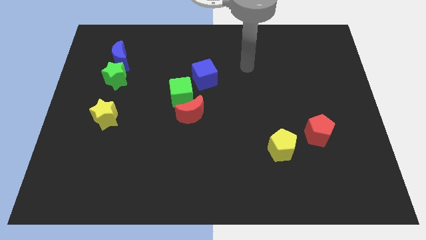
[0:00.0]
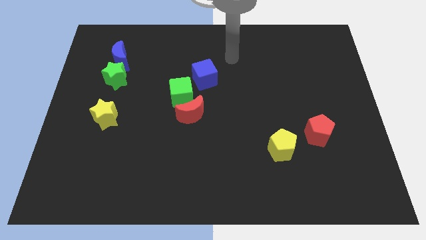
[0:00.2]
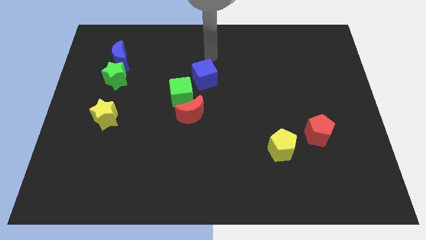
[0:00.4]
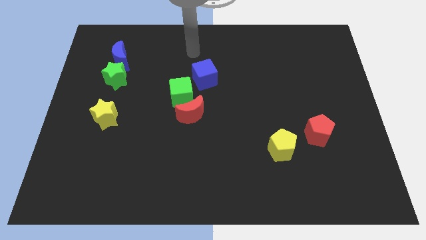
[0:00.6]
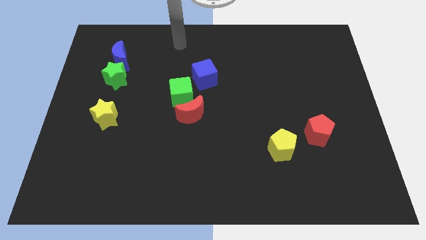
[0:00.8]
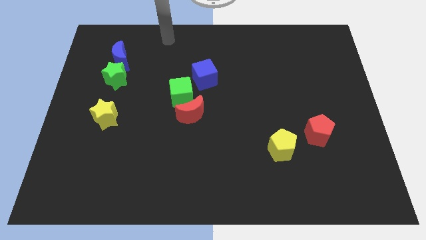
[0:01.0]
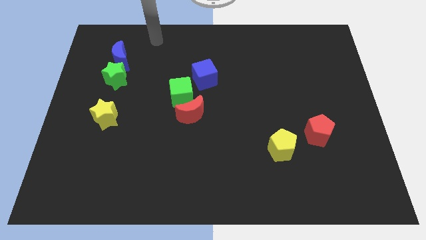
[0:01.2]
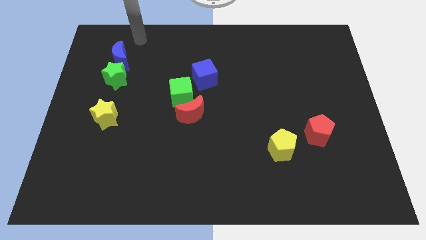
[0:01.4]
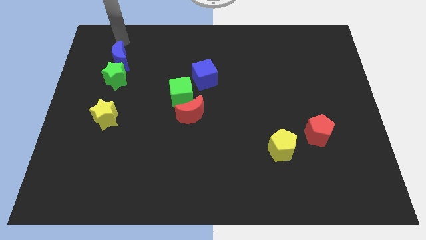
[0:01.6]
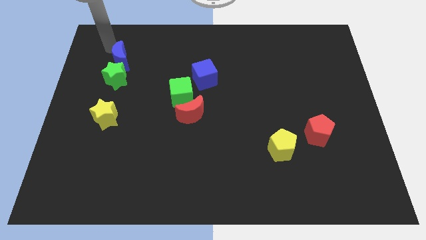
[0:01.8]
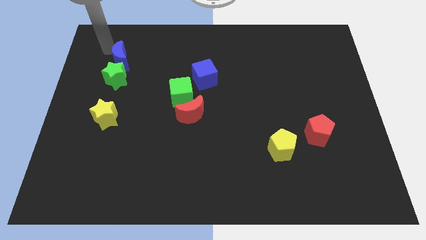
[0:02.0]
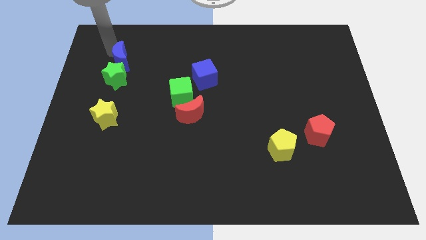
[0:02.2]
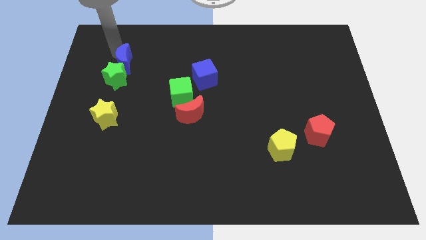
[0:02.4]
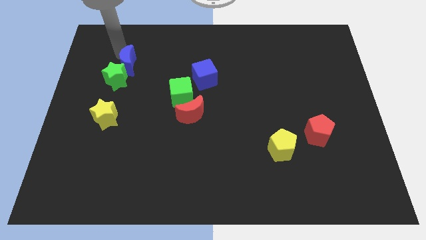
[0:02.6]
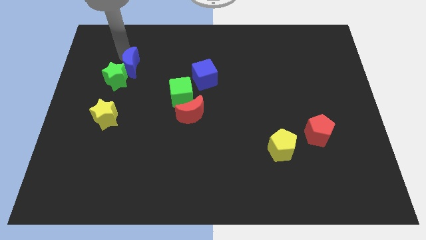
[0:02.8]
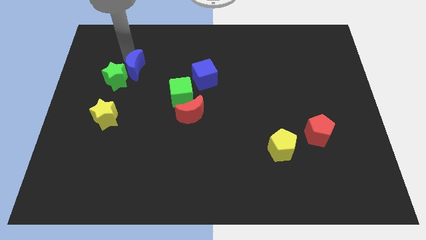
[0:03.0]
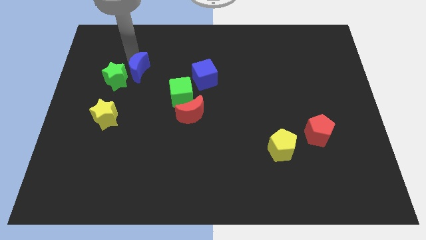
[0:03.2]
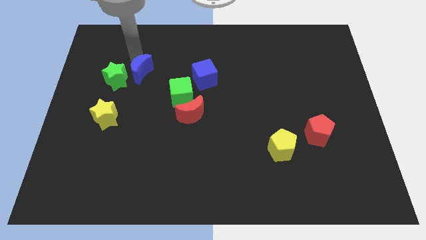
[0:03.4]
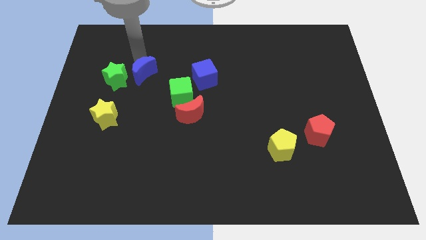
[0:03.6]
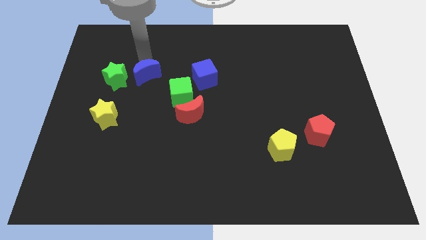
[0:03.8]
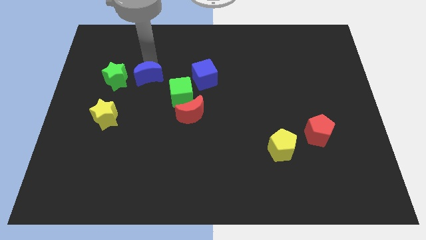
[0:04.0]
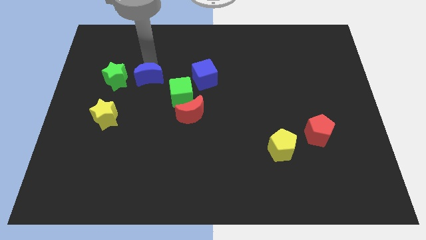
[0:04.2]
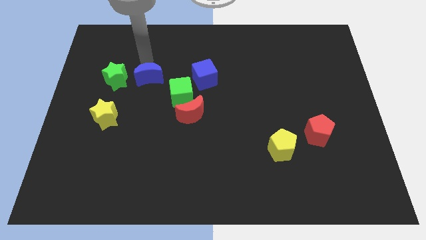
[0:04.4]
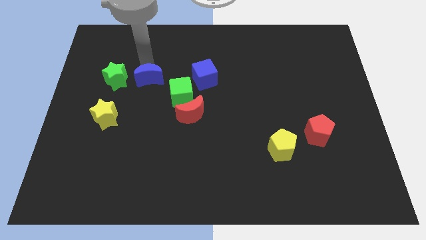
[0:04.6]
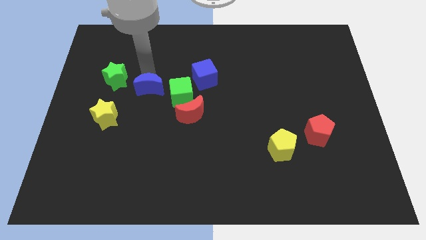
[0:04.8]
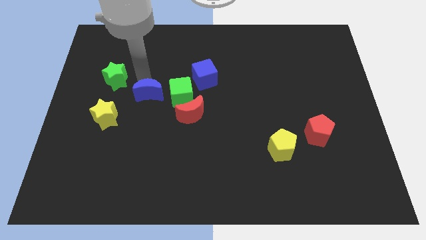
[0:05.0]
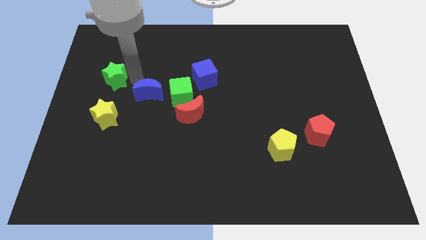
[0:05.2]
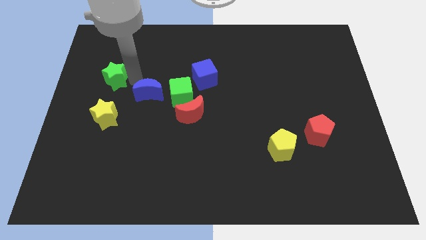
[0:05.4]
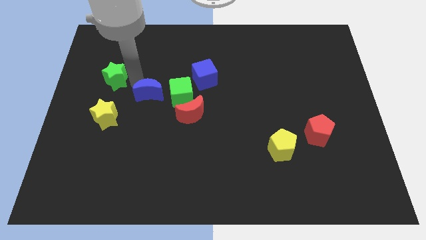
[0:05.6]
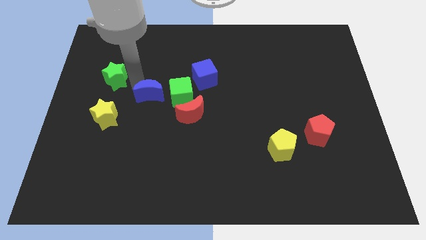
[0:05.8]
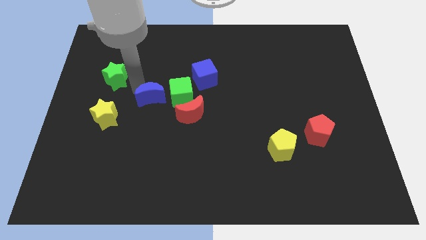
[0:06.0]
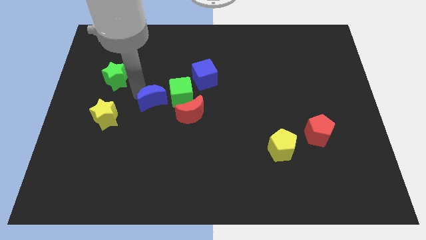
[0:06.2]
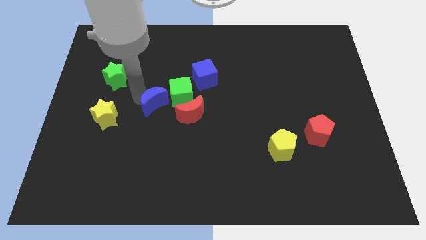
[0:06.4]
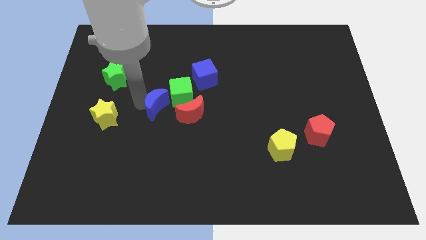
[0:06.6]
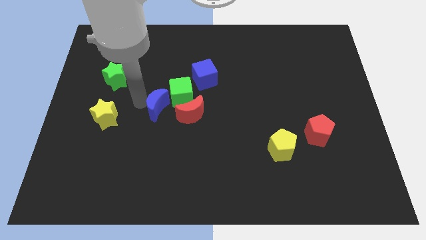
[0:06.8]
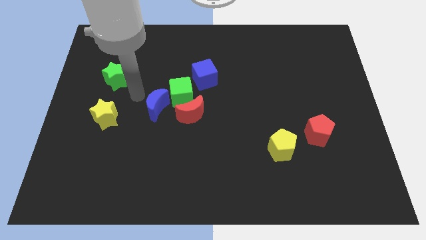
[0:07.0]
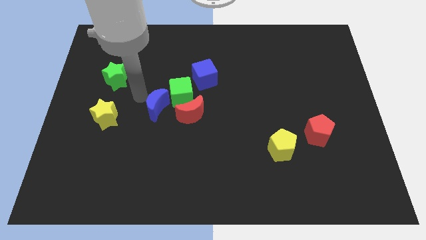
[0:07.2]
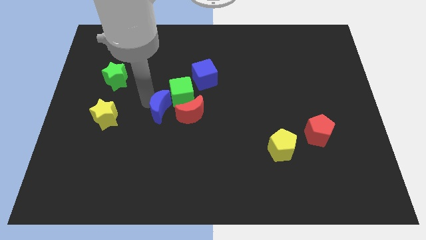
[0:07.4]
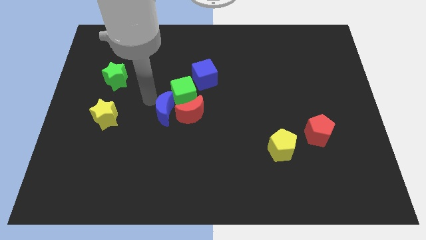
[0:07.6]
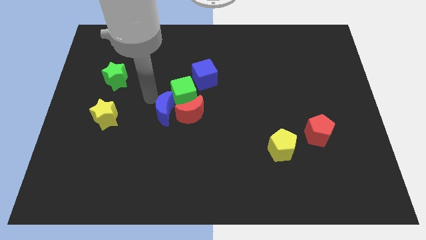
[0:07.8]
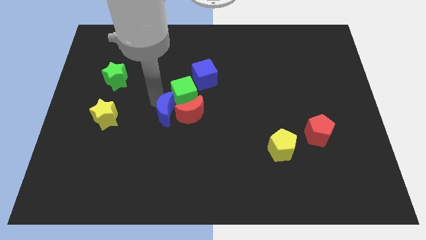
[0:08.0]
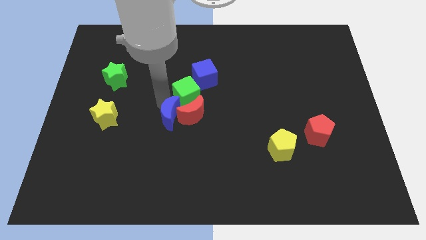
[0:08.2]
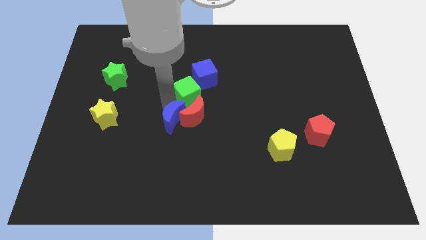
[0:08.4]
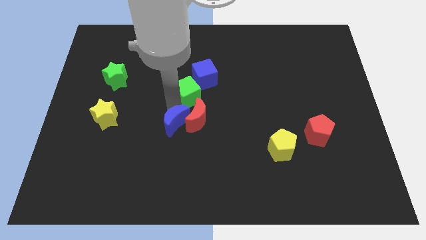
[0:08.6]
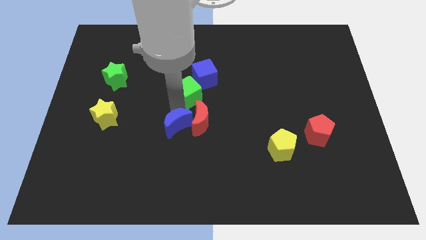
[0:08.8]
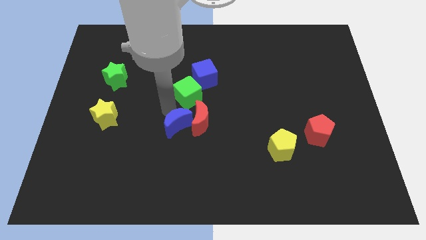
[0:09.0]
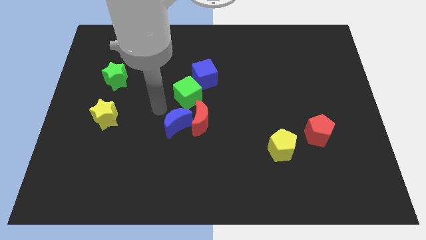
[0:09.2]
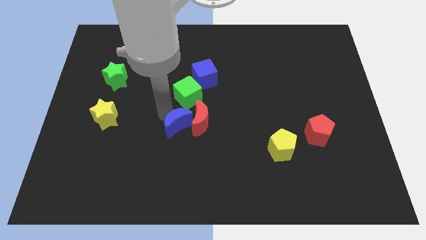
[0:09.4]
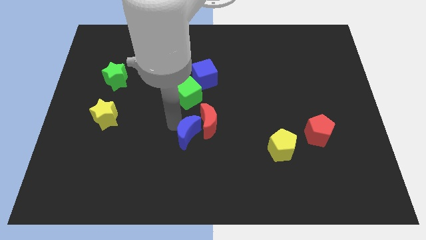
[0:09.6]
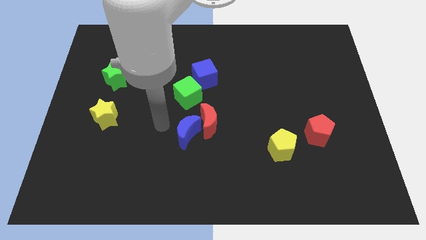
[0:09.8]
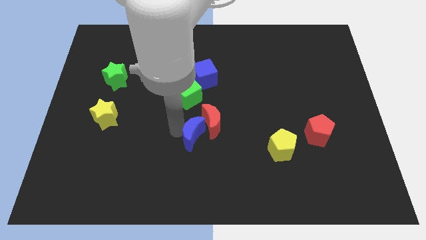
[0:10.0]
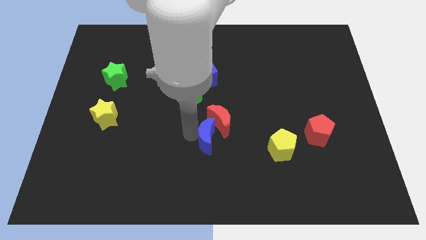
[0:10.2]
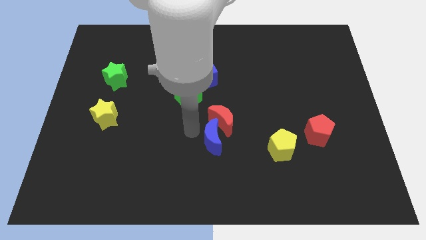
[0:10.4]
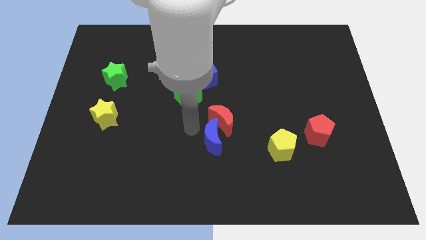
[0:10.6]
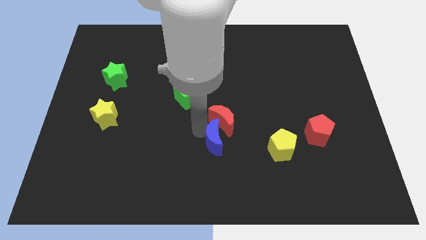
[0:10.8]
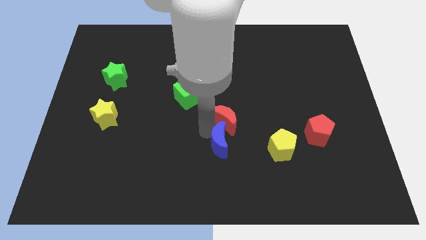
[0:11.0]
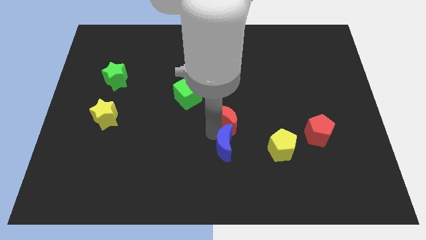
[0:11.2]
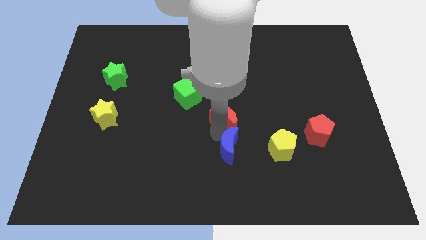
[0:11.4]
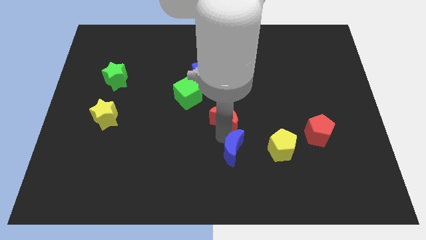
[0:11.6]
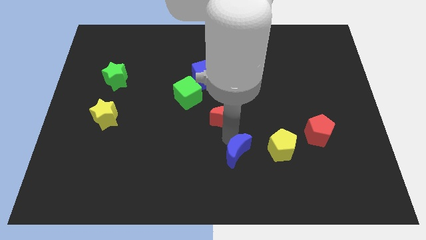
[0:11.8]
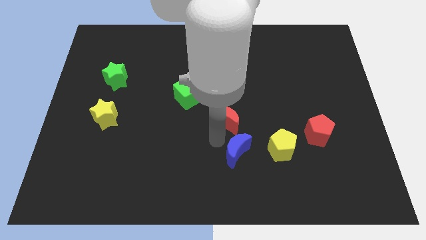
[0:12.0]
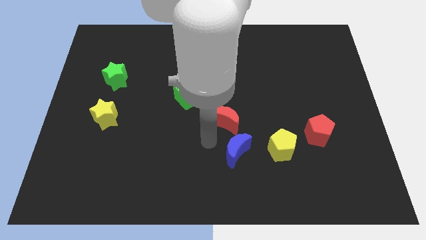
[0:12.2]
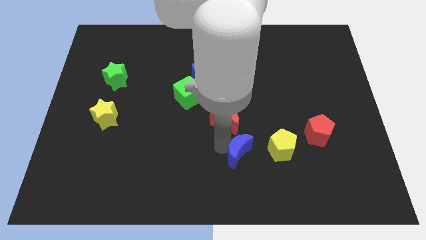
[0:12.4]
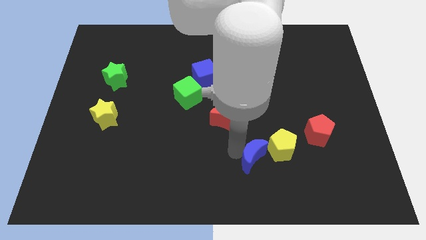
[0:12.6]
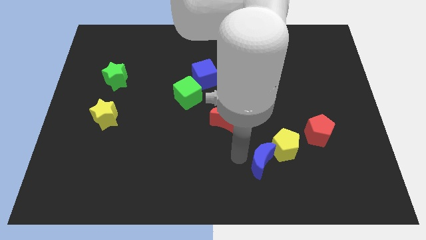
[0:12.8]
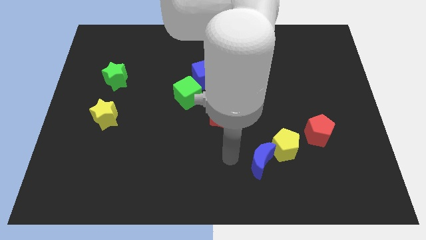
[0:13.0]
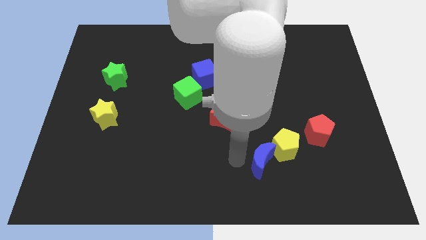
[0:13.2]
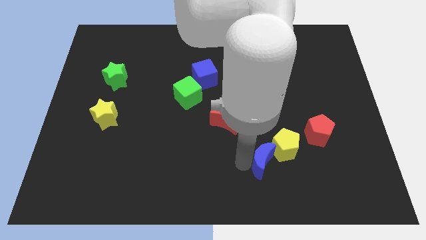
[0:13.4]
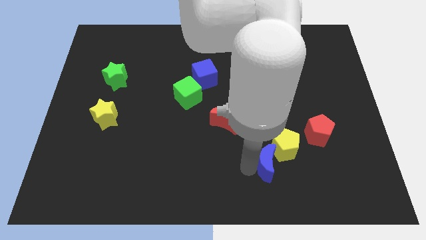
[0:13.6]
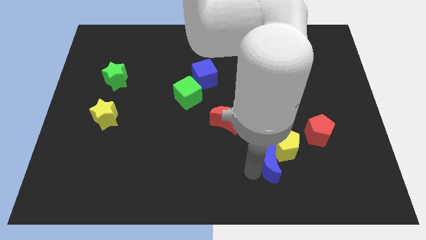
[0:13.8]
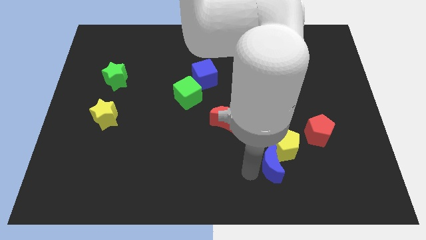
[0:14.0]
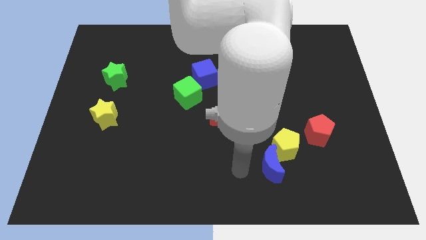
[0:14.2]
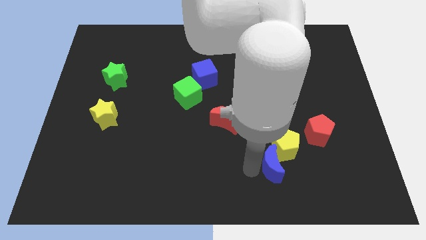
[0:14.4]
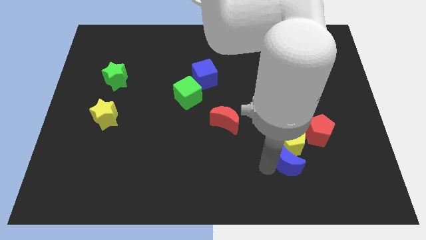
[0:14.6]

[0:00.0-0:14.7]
move the blue moon to the bottom right of the yellow pentagon
